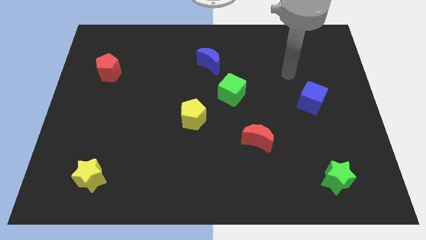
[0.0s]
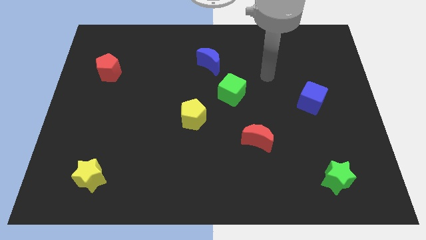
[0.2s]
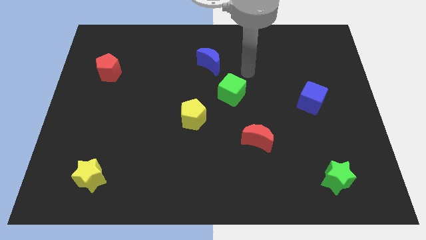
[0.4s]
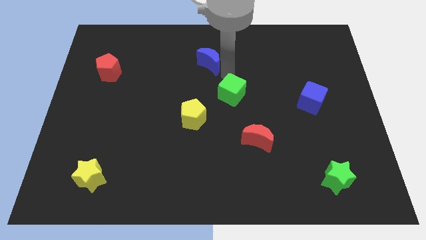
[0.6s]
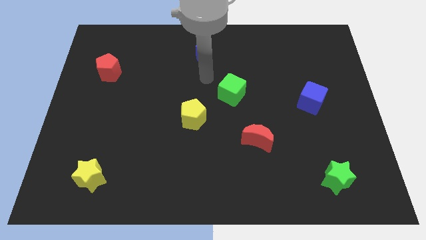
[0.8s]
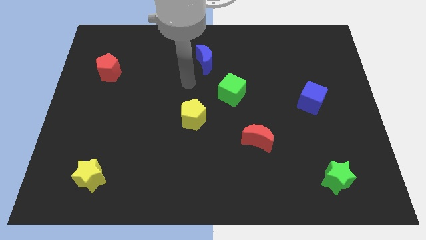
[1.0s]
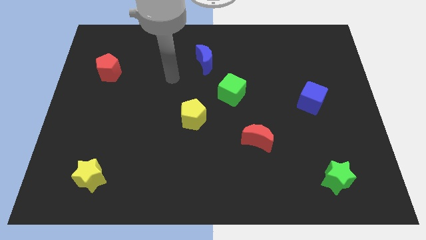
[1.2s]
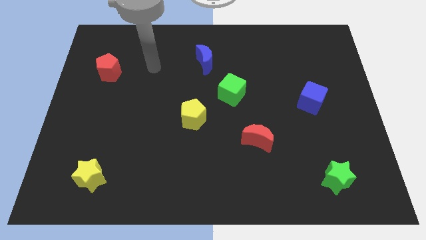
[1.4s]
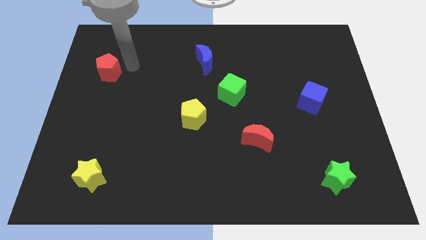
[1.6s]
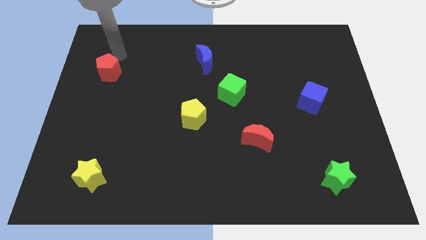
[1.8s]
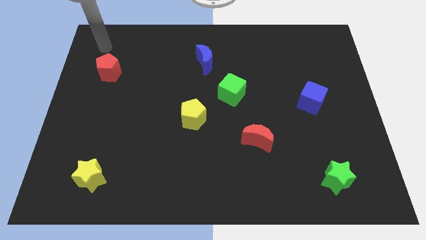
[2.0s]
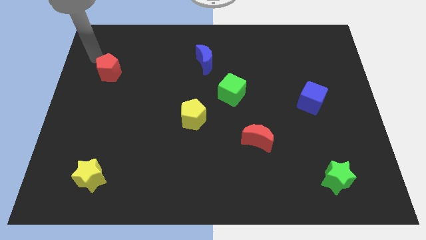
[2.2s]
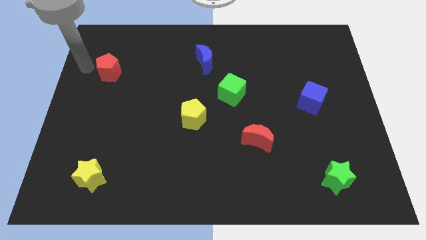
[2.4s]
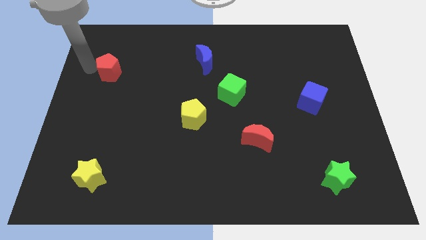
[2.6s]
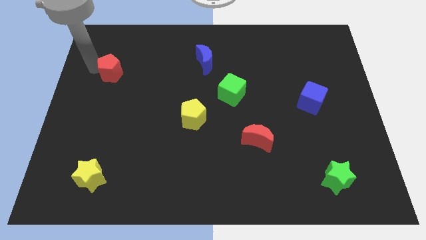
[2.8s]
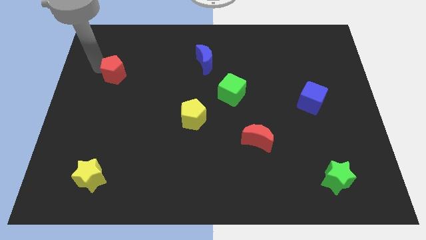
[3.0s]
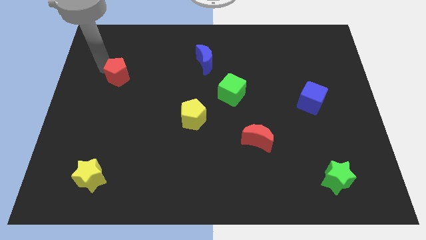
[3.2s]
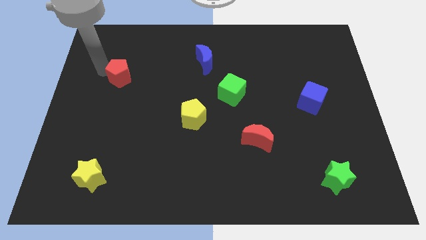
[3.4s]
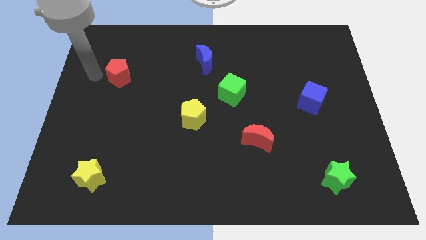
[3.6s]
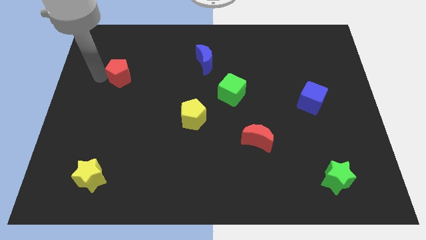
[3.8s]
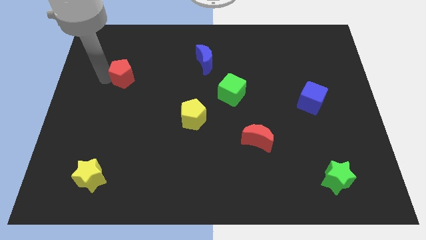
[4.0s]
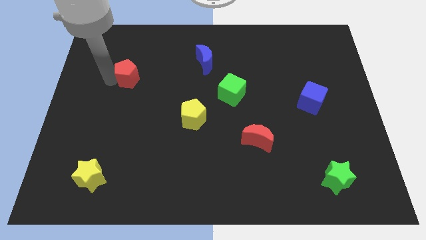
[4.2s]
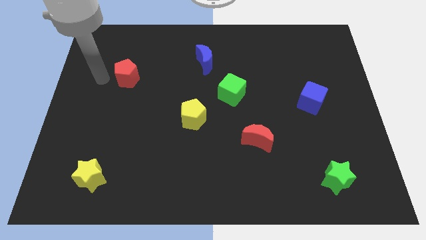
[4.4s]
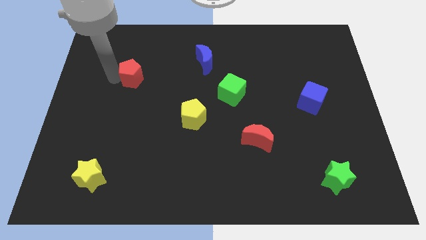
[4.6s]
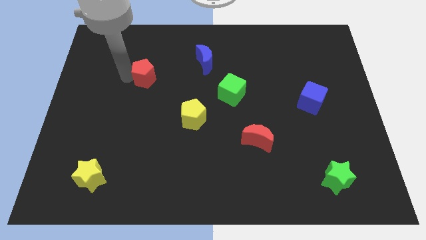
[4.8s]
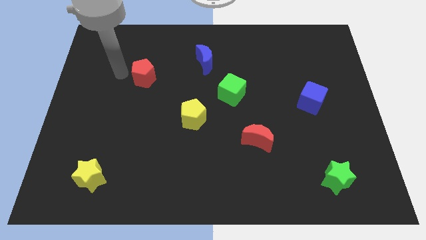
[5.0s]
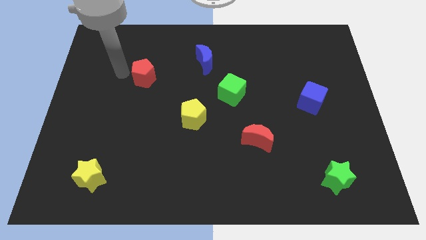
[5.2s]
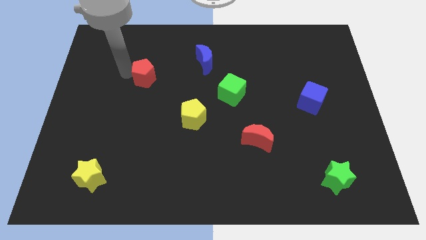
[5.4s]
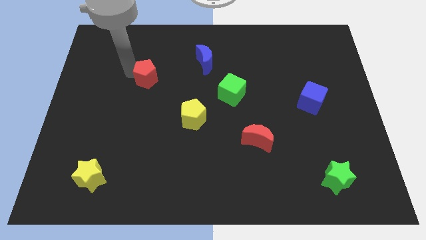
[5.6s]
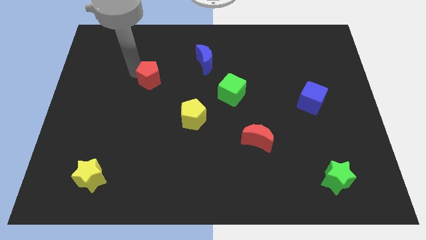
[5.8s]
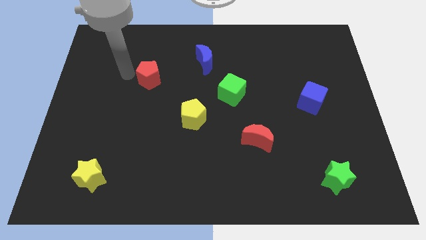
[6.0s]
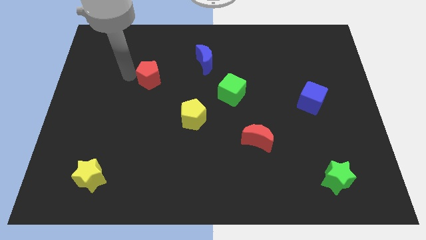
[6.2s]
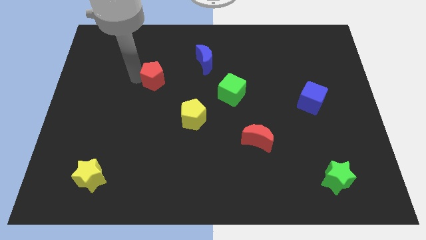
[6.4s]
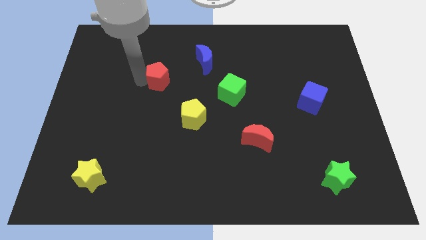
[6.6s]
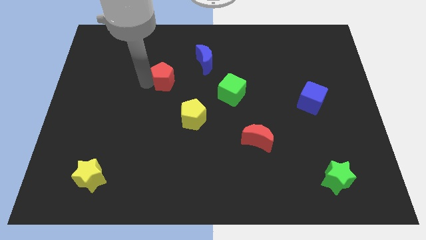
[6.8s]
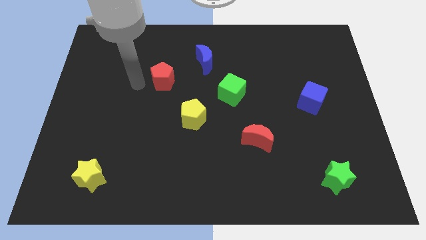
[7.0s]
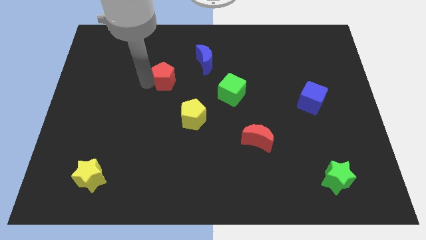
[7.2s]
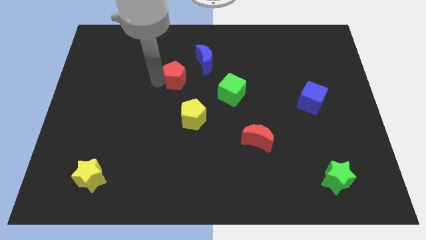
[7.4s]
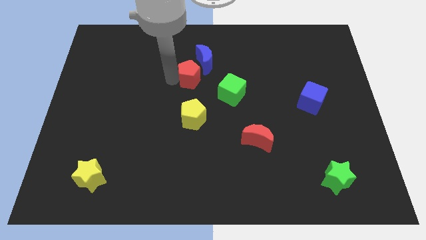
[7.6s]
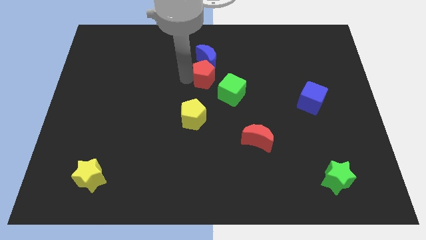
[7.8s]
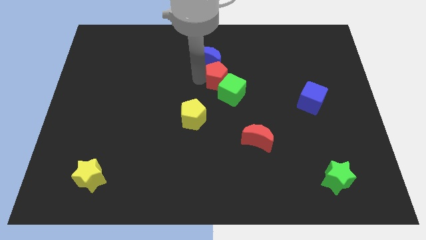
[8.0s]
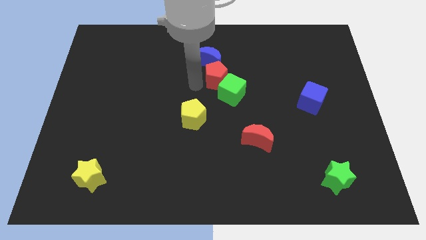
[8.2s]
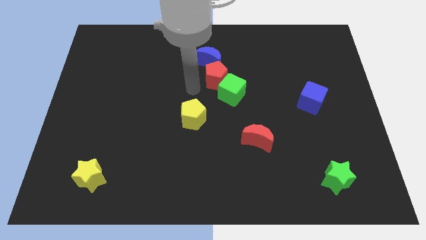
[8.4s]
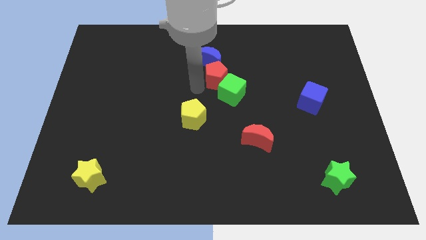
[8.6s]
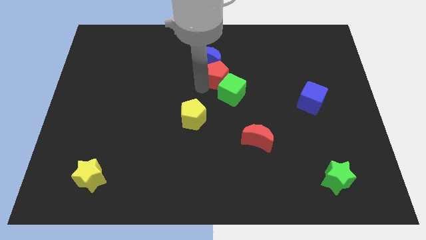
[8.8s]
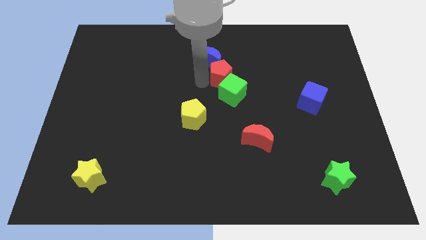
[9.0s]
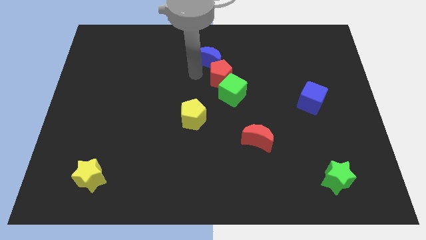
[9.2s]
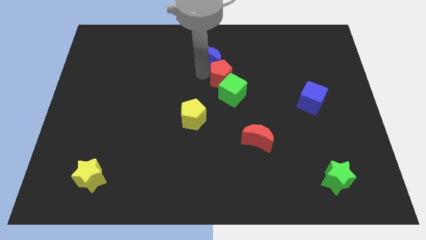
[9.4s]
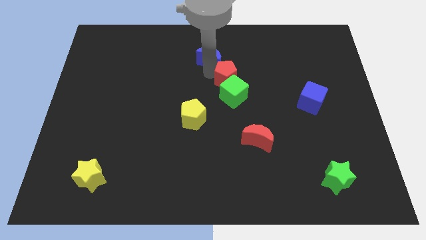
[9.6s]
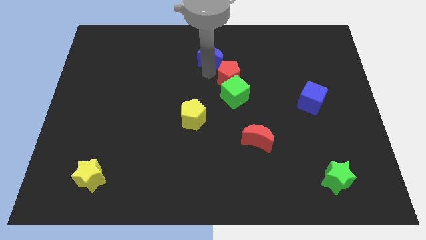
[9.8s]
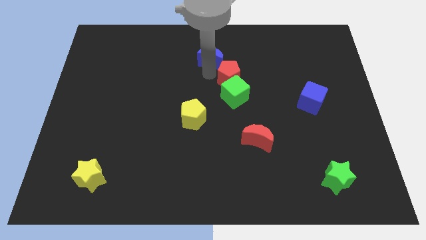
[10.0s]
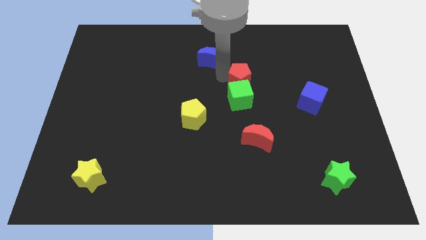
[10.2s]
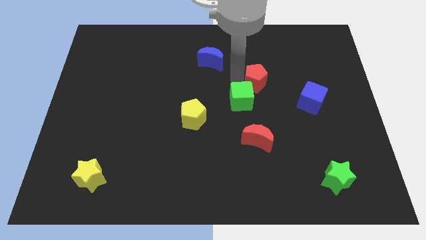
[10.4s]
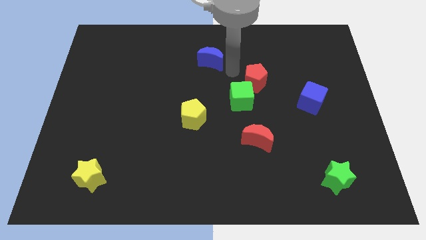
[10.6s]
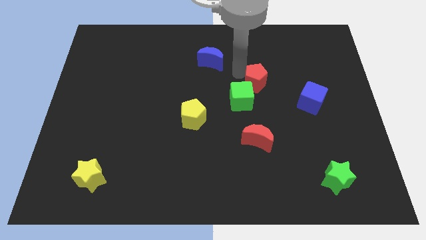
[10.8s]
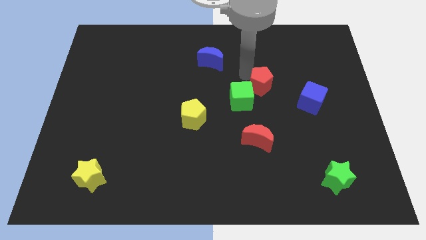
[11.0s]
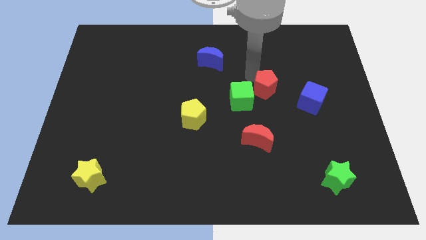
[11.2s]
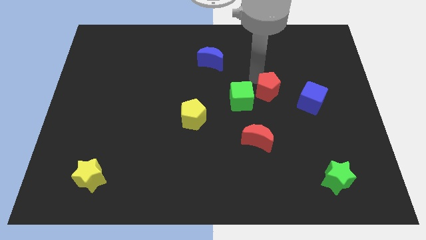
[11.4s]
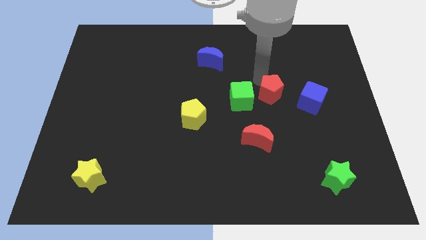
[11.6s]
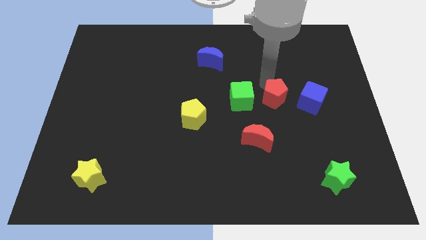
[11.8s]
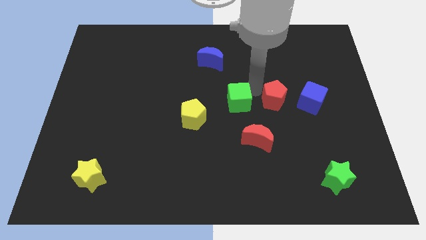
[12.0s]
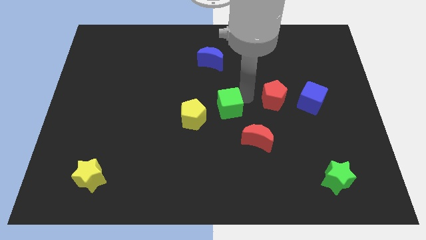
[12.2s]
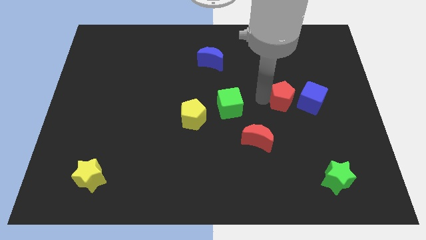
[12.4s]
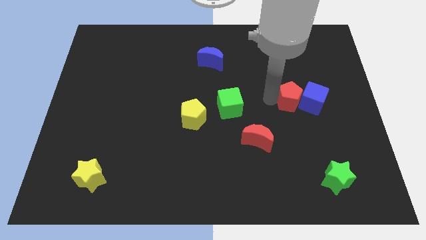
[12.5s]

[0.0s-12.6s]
push the red pentagon to the blue cube
